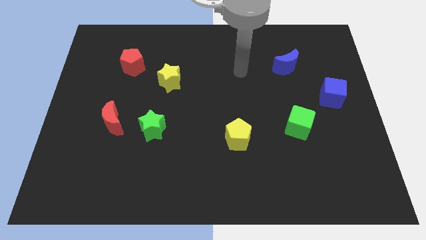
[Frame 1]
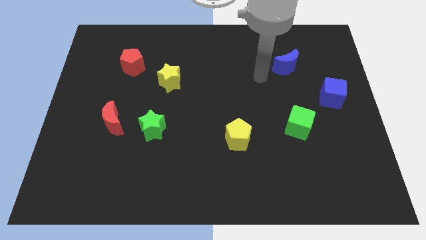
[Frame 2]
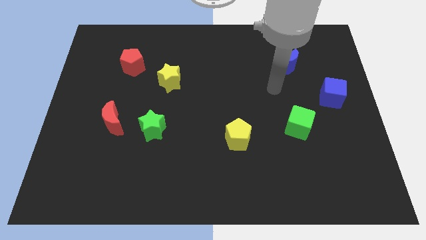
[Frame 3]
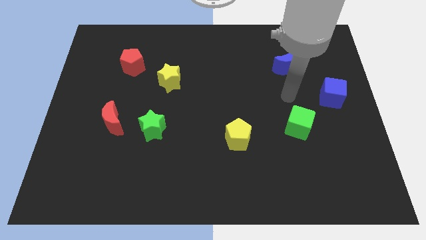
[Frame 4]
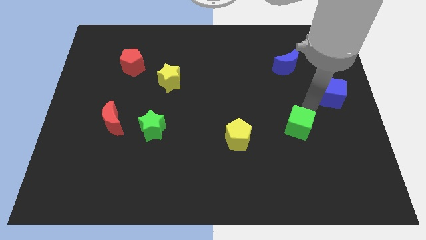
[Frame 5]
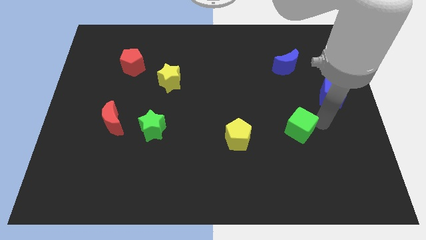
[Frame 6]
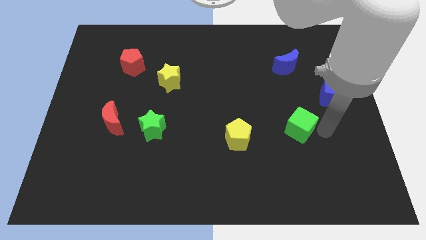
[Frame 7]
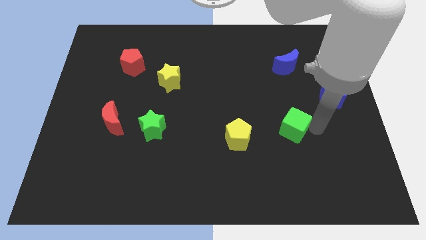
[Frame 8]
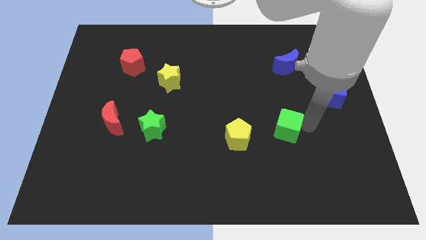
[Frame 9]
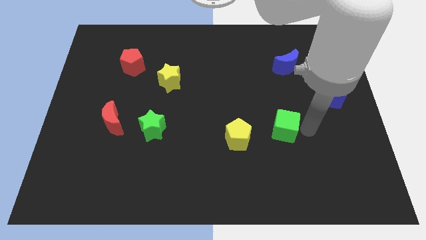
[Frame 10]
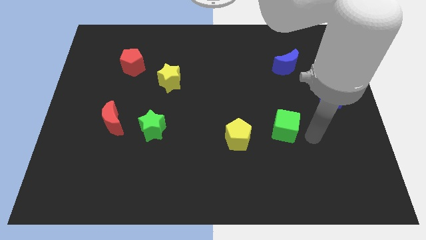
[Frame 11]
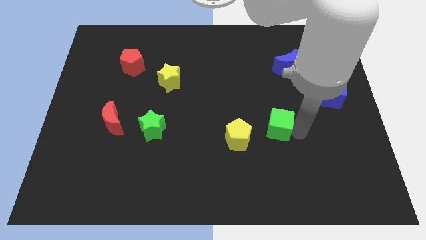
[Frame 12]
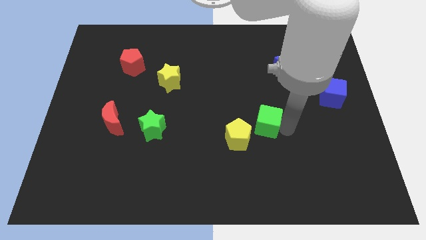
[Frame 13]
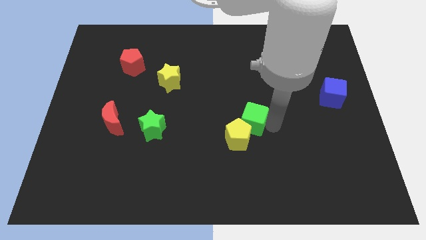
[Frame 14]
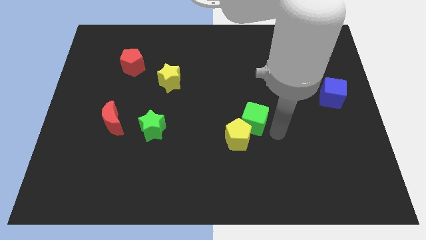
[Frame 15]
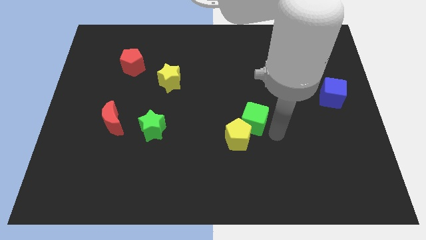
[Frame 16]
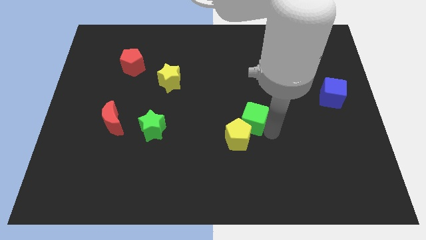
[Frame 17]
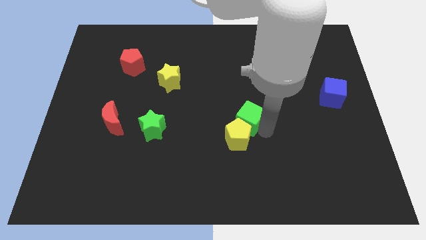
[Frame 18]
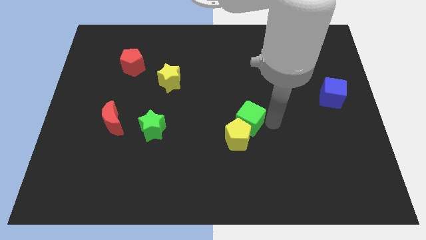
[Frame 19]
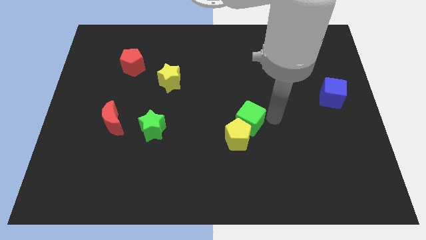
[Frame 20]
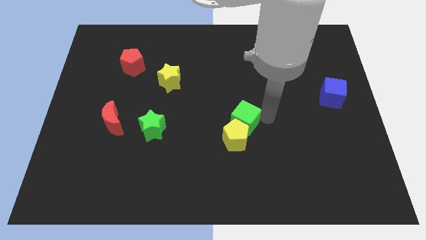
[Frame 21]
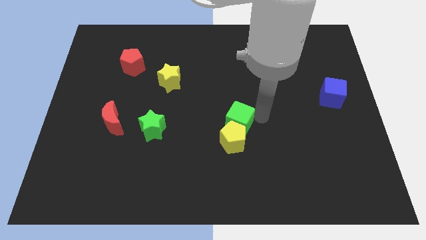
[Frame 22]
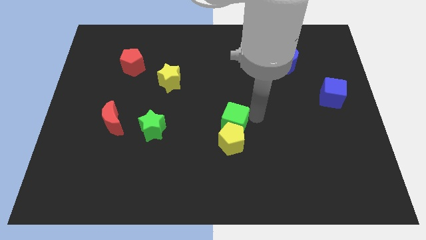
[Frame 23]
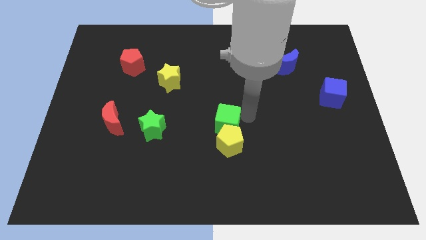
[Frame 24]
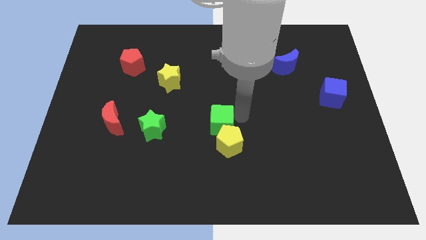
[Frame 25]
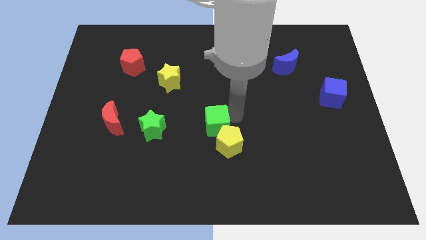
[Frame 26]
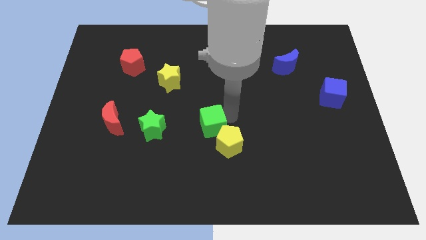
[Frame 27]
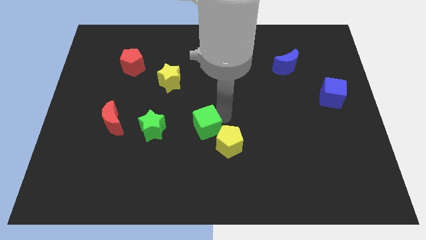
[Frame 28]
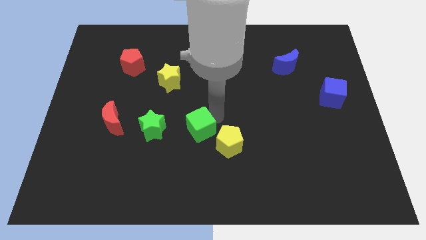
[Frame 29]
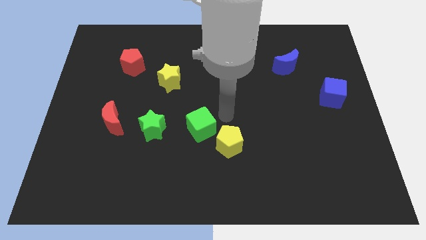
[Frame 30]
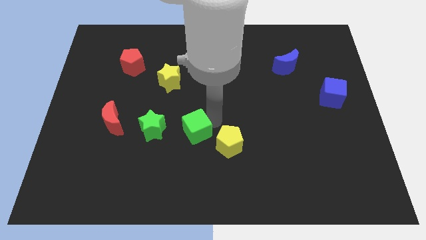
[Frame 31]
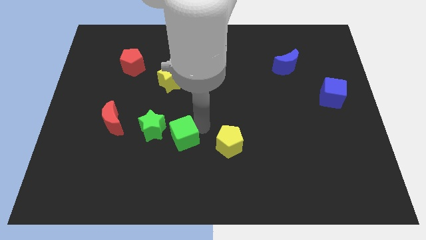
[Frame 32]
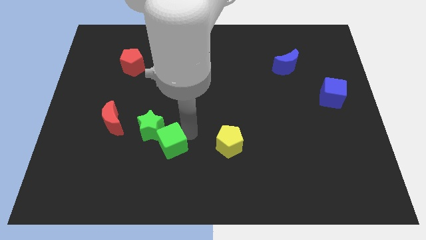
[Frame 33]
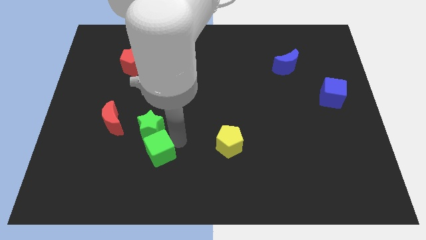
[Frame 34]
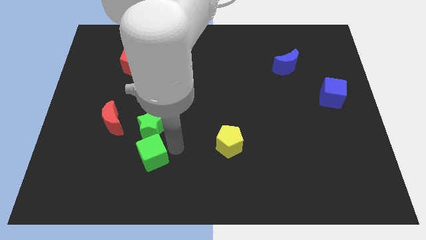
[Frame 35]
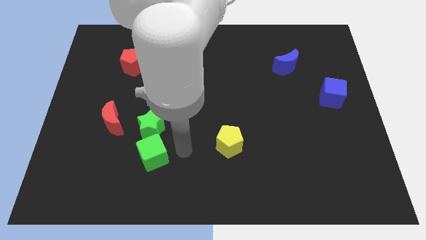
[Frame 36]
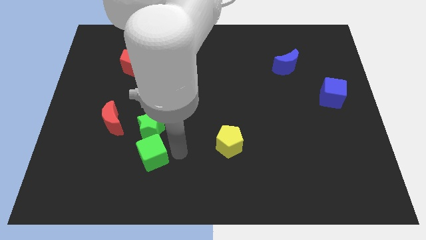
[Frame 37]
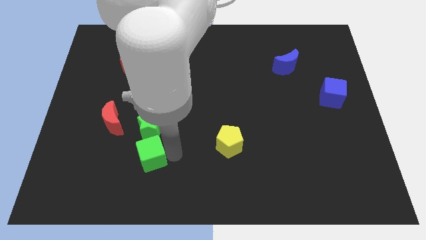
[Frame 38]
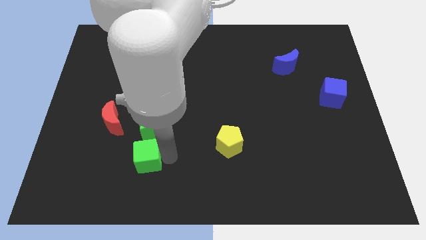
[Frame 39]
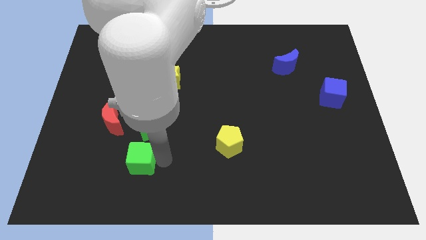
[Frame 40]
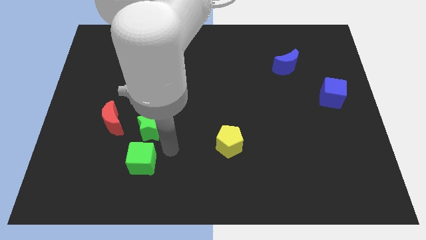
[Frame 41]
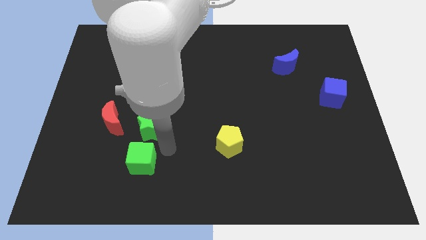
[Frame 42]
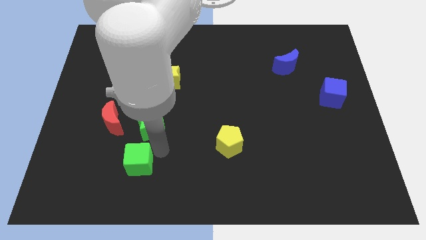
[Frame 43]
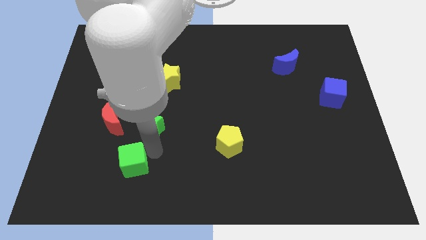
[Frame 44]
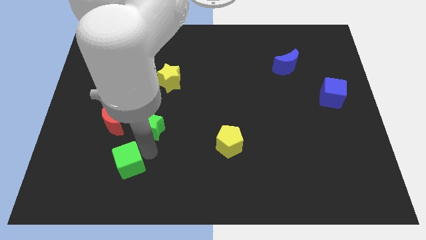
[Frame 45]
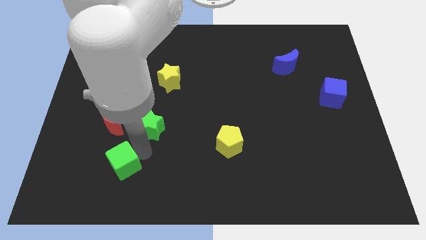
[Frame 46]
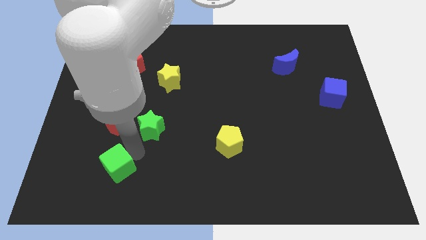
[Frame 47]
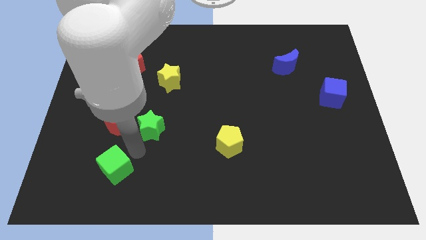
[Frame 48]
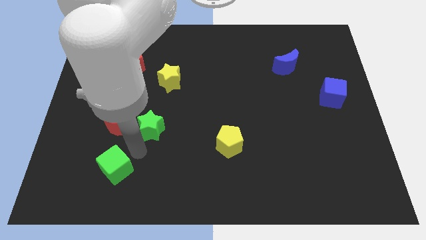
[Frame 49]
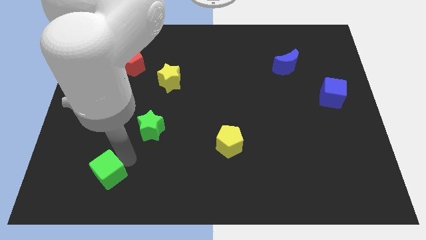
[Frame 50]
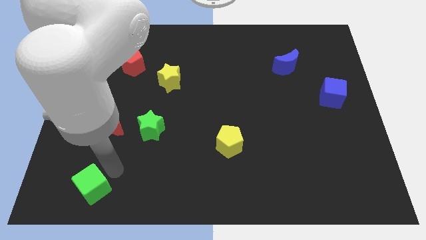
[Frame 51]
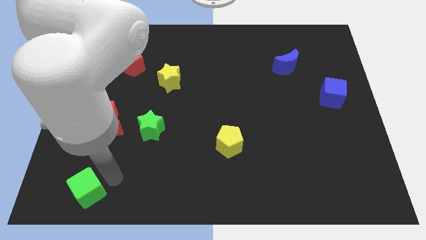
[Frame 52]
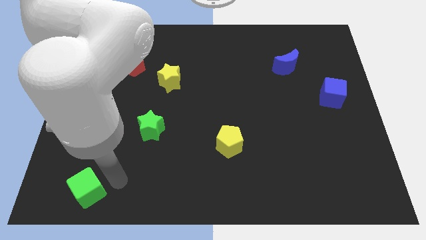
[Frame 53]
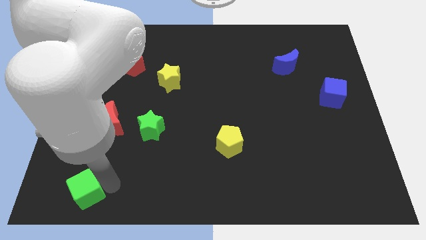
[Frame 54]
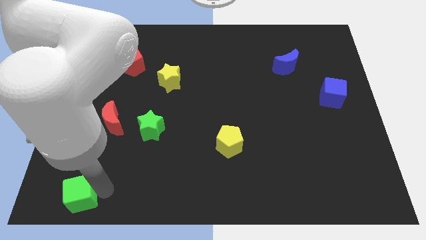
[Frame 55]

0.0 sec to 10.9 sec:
put the green cube to the bottom left
